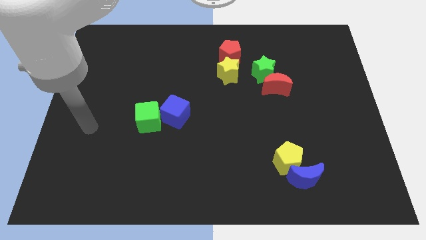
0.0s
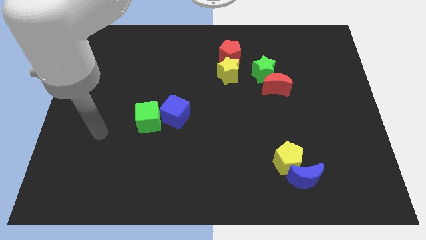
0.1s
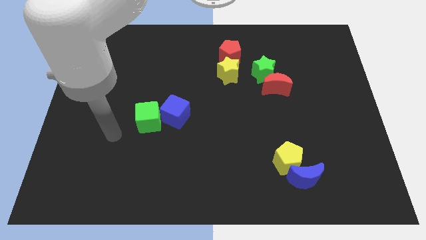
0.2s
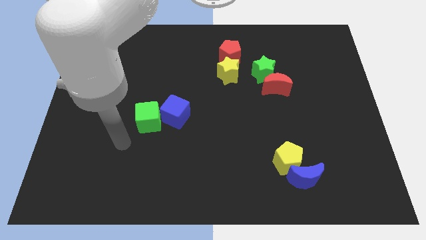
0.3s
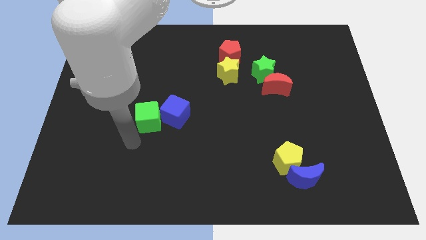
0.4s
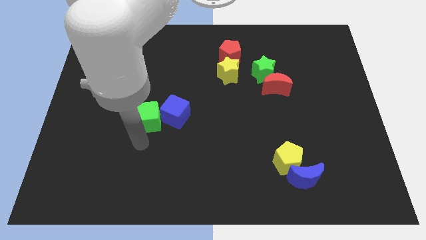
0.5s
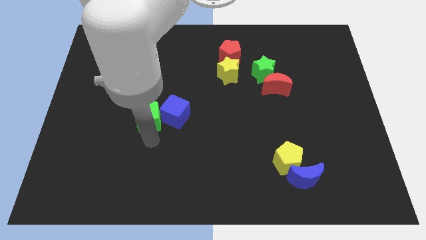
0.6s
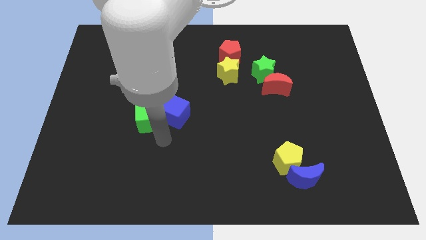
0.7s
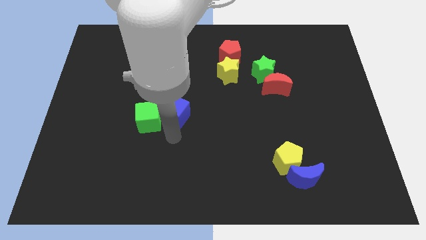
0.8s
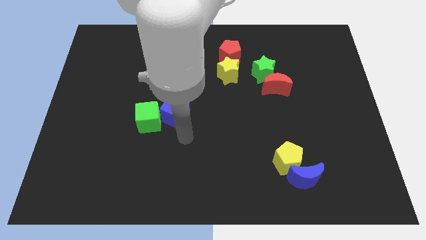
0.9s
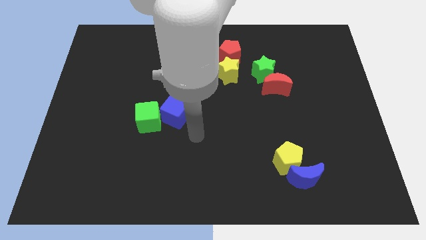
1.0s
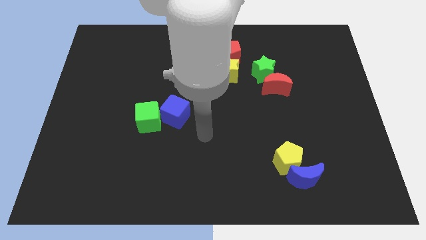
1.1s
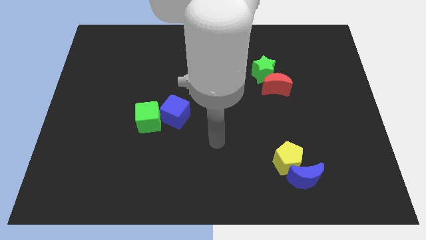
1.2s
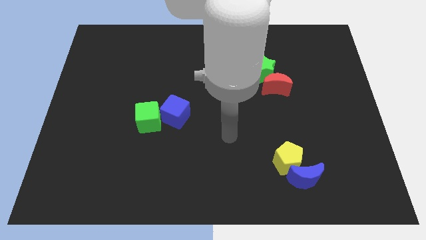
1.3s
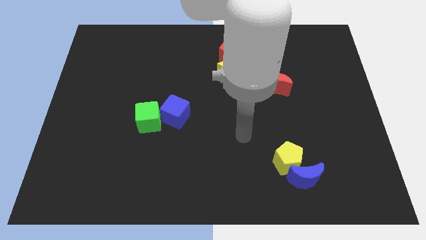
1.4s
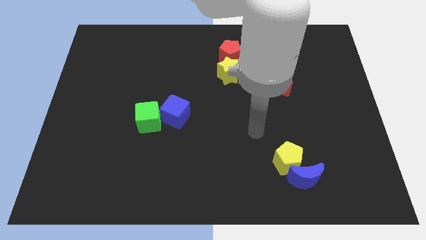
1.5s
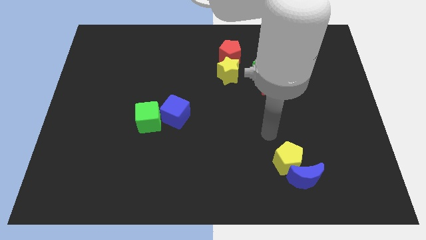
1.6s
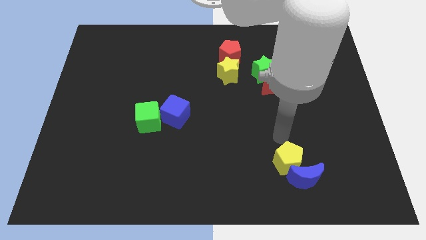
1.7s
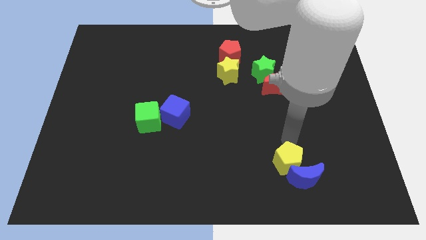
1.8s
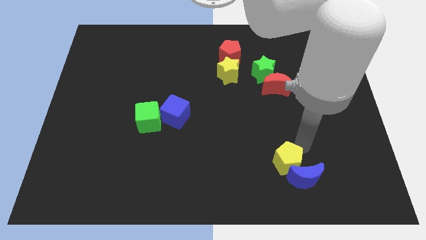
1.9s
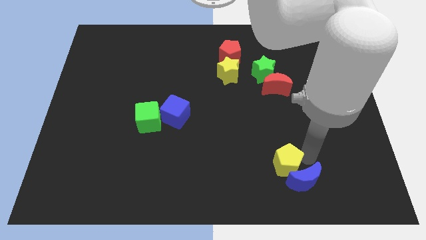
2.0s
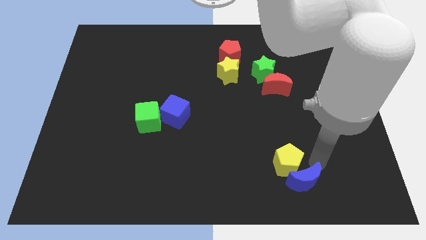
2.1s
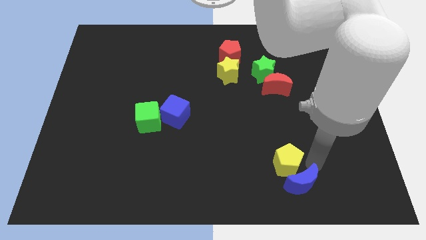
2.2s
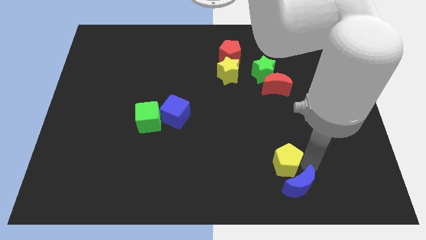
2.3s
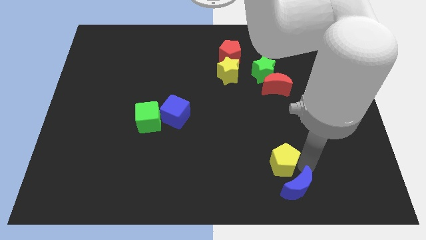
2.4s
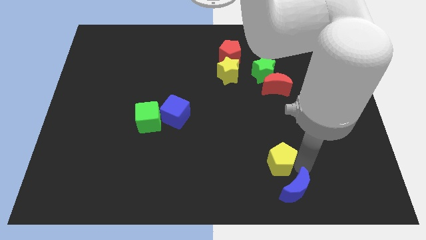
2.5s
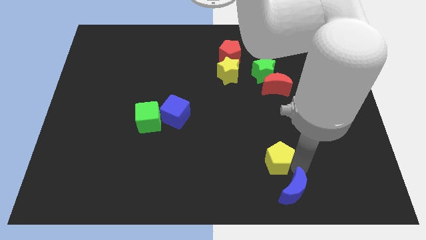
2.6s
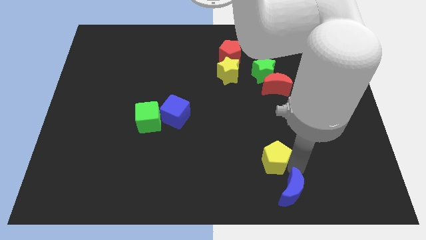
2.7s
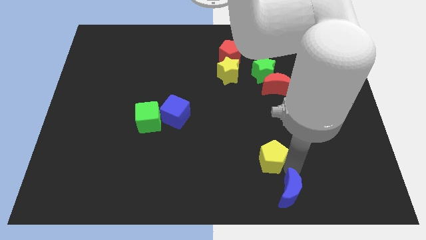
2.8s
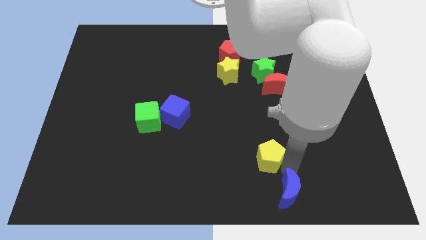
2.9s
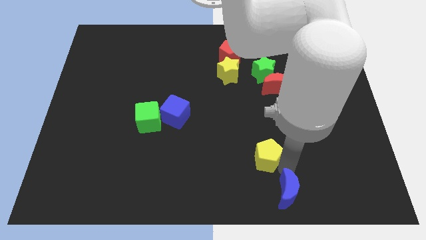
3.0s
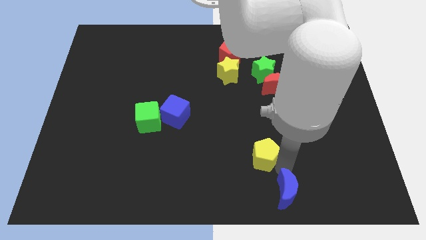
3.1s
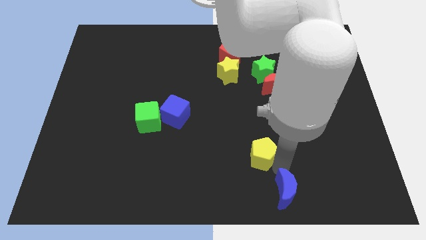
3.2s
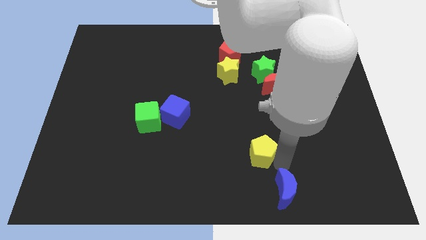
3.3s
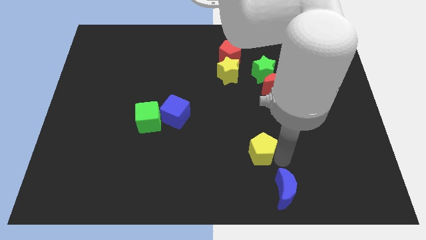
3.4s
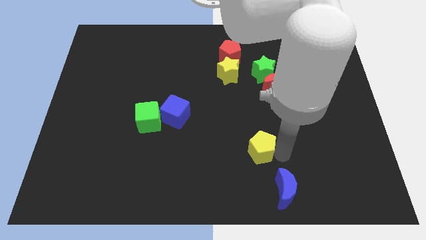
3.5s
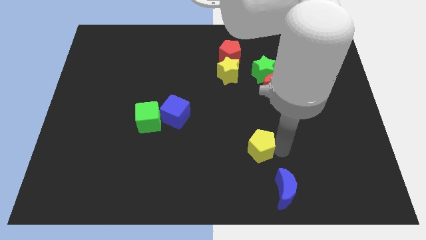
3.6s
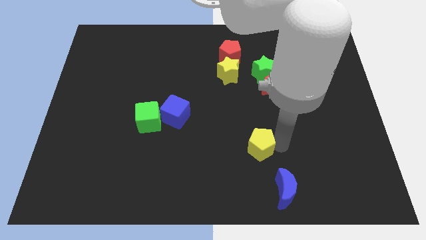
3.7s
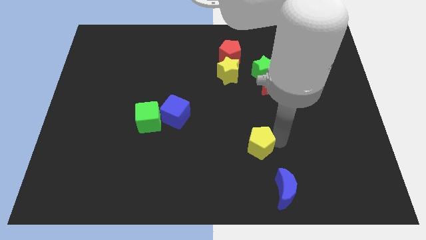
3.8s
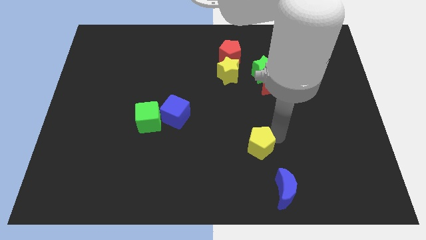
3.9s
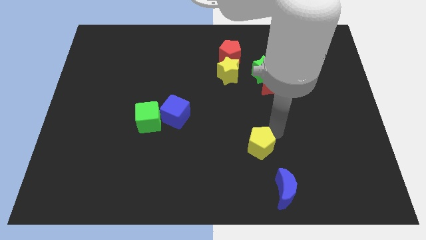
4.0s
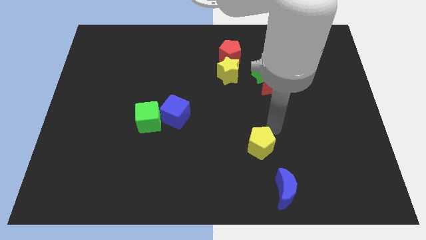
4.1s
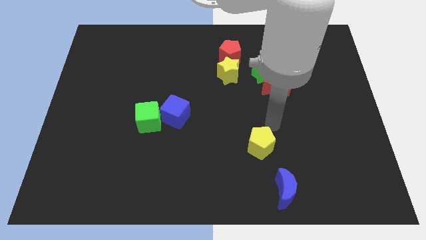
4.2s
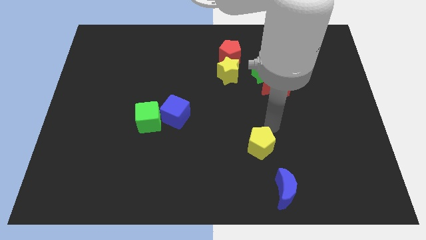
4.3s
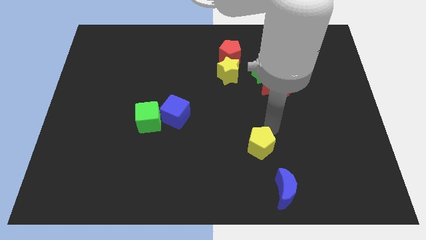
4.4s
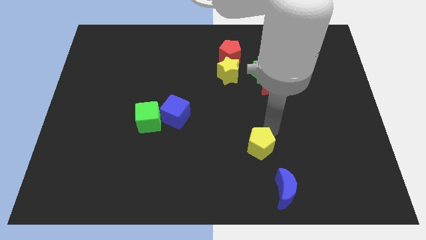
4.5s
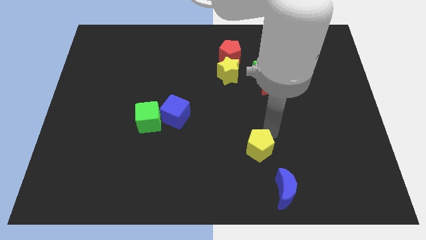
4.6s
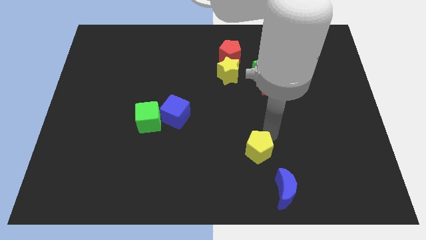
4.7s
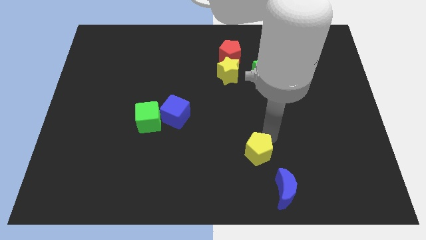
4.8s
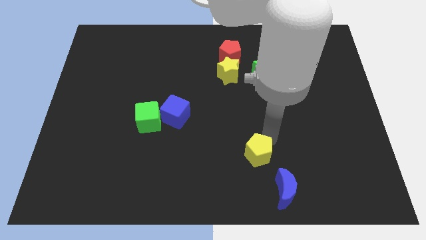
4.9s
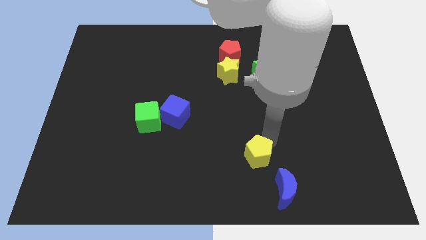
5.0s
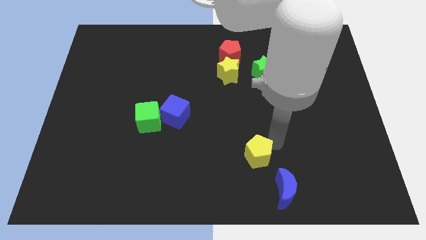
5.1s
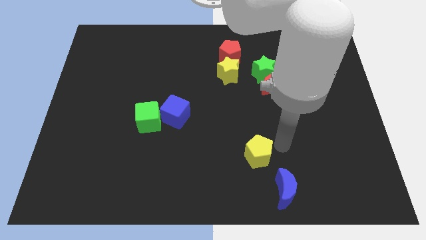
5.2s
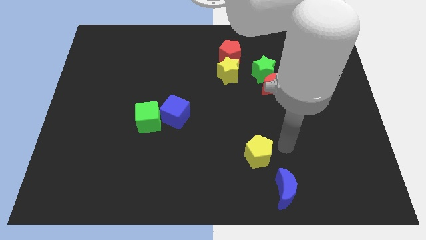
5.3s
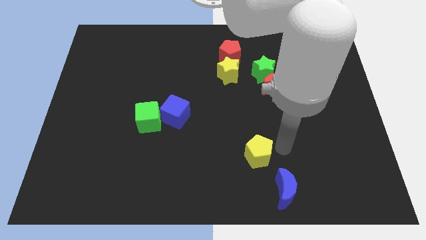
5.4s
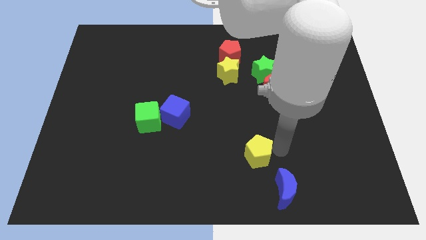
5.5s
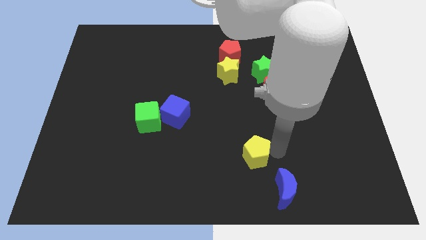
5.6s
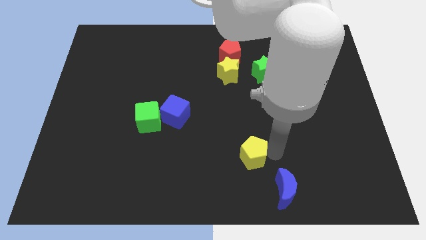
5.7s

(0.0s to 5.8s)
move the yellow pentagon left a little

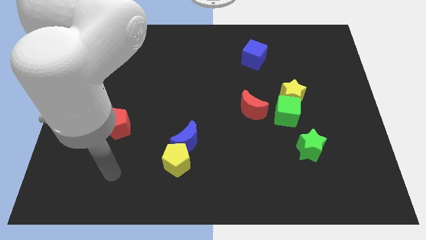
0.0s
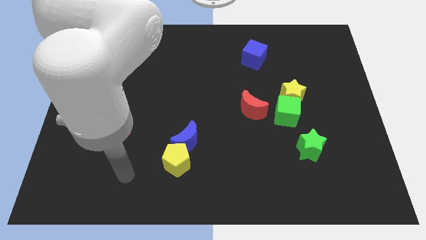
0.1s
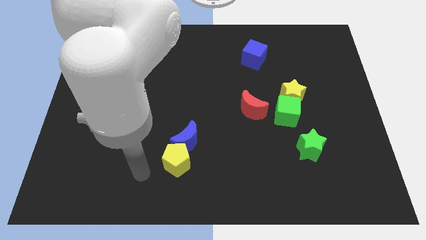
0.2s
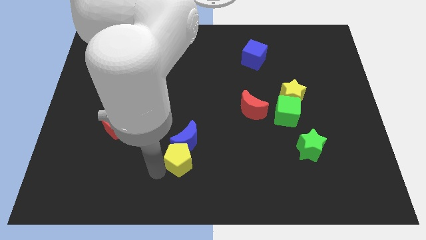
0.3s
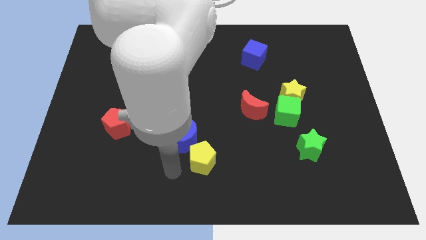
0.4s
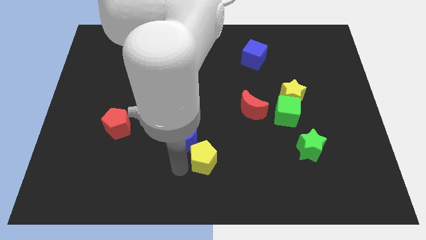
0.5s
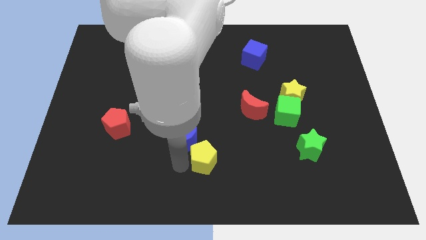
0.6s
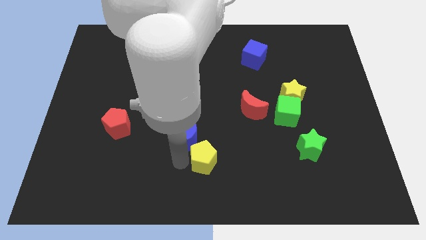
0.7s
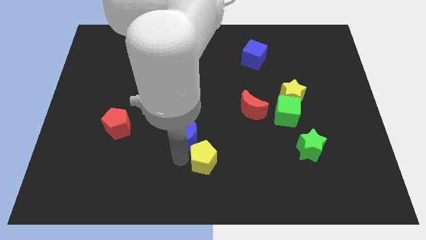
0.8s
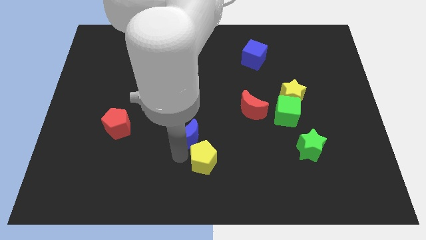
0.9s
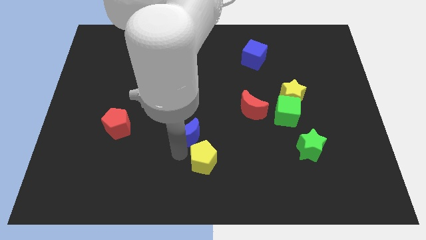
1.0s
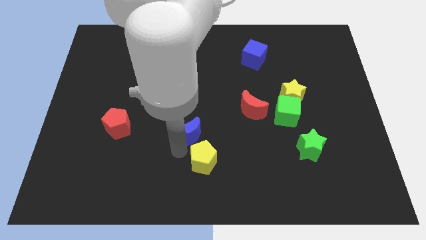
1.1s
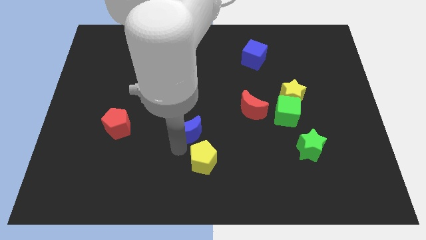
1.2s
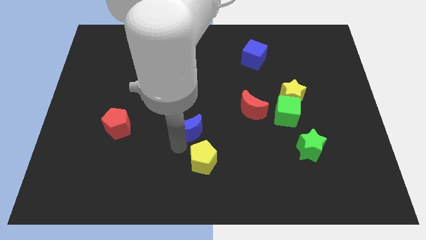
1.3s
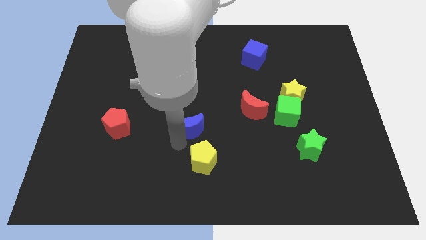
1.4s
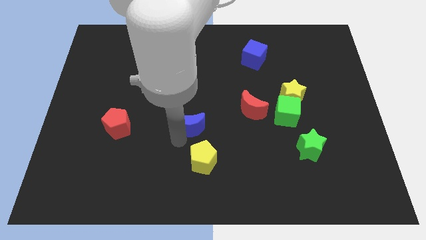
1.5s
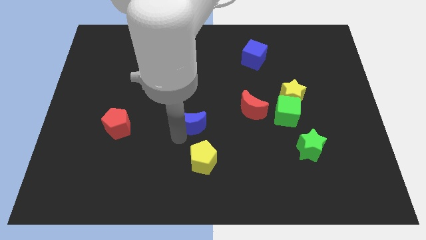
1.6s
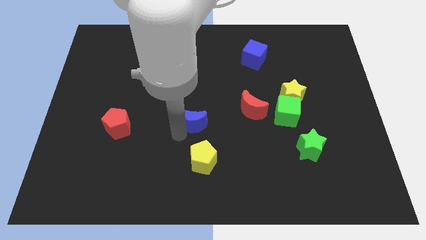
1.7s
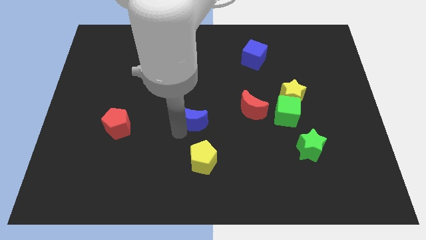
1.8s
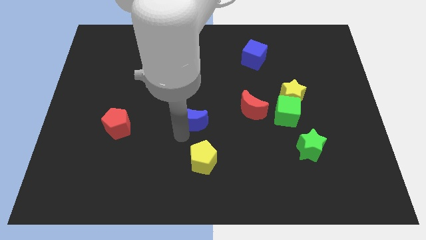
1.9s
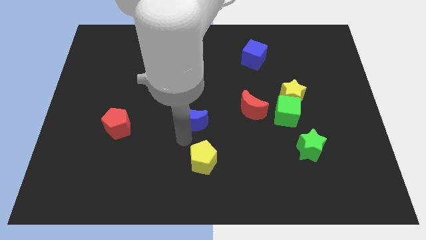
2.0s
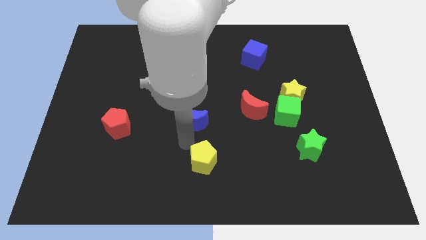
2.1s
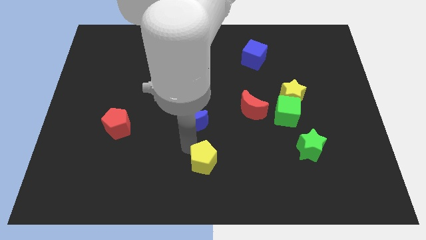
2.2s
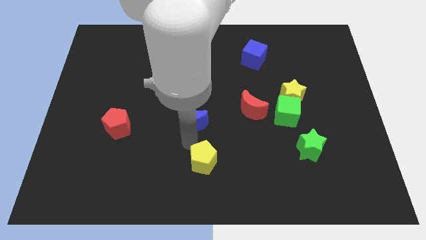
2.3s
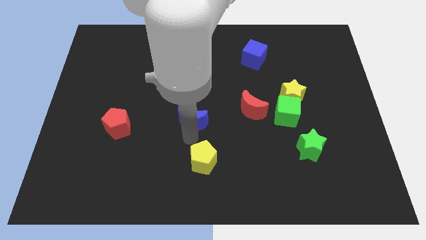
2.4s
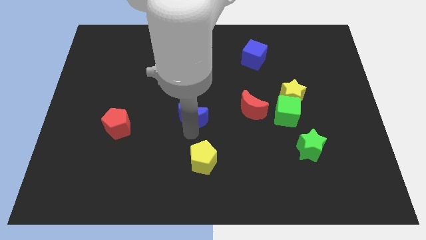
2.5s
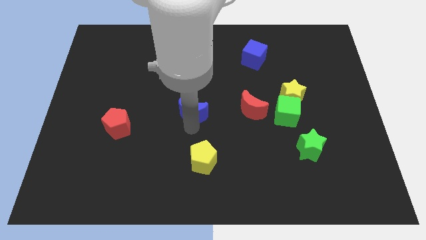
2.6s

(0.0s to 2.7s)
slide the blue moon a little bit up
